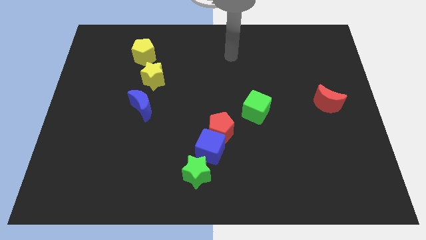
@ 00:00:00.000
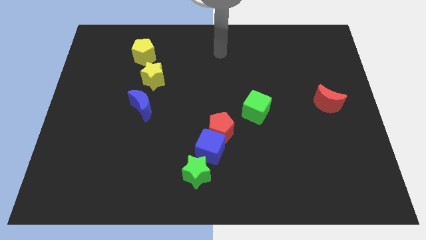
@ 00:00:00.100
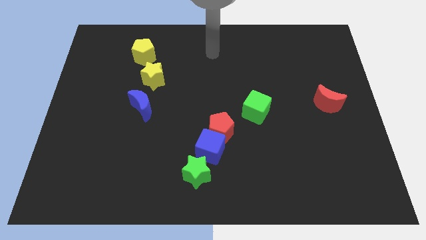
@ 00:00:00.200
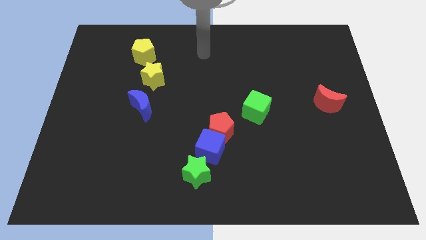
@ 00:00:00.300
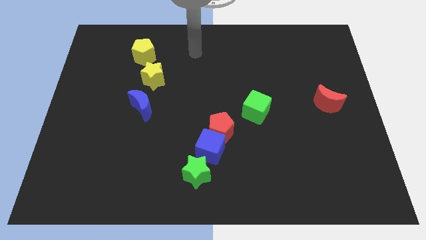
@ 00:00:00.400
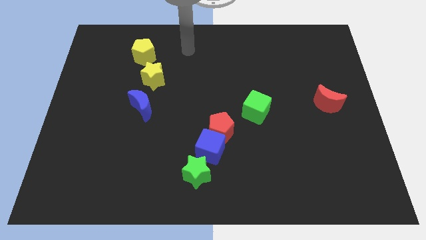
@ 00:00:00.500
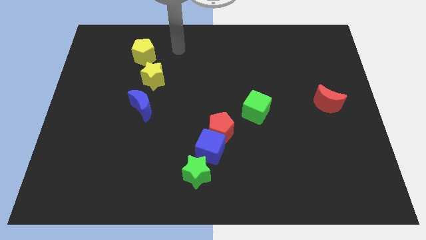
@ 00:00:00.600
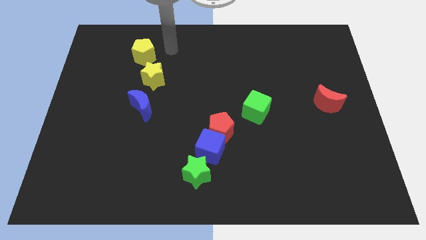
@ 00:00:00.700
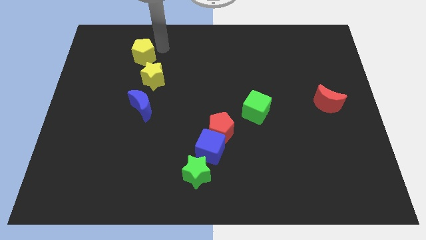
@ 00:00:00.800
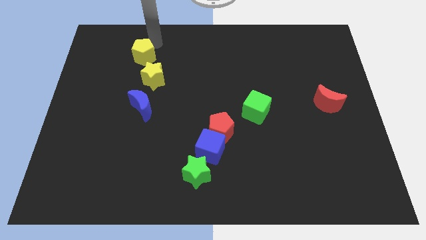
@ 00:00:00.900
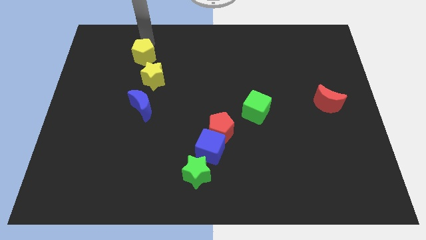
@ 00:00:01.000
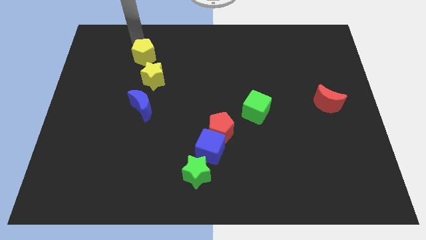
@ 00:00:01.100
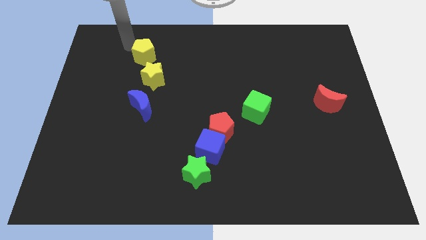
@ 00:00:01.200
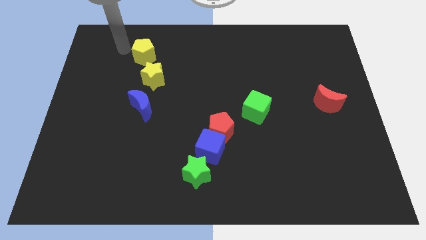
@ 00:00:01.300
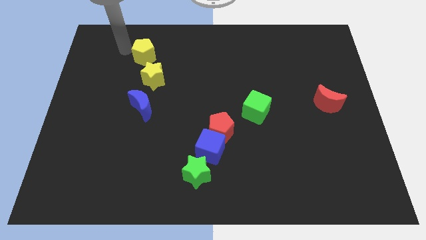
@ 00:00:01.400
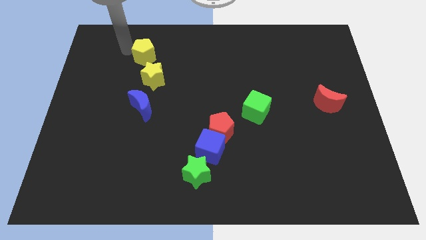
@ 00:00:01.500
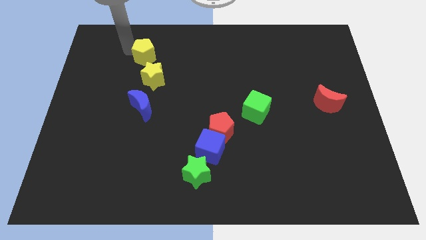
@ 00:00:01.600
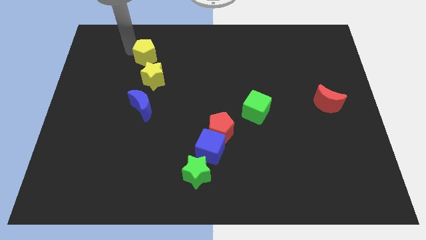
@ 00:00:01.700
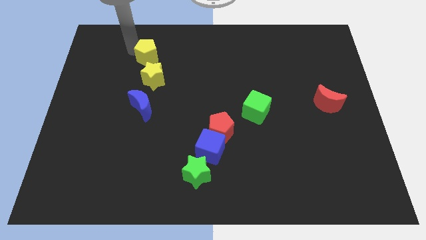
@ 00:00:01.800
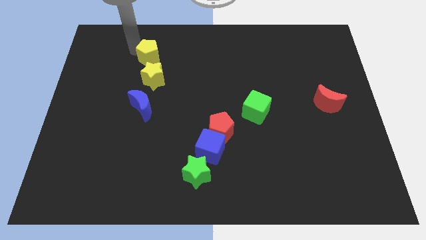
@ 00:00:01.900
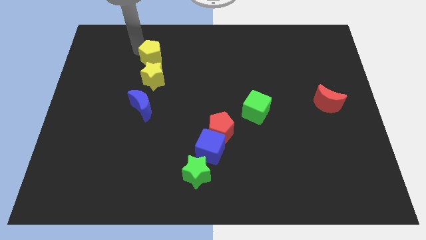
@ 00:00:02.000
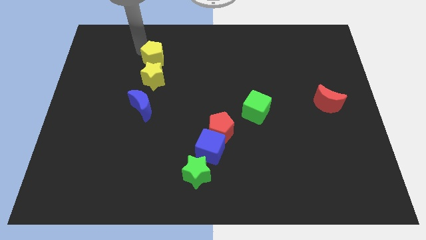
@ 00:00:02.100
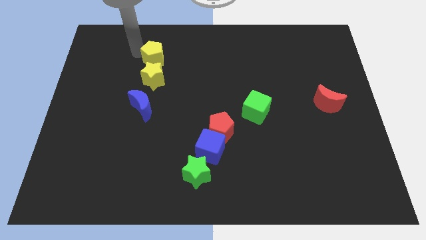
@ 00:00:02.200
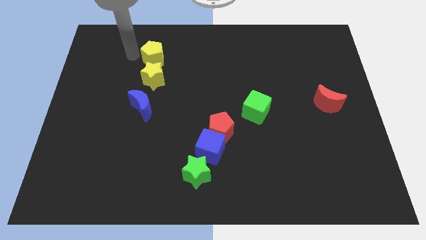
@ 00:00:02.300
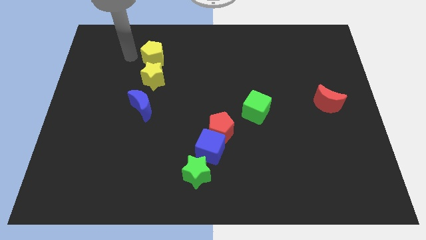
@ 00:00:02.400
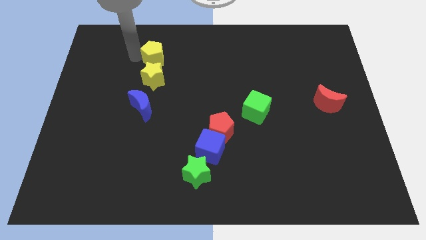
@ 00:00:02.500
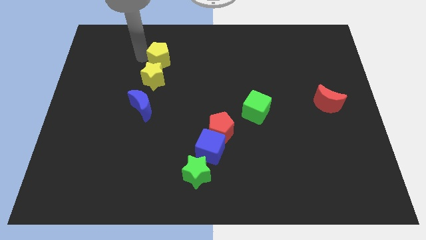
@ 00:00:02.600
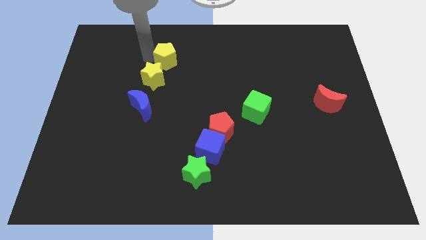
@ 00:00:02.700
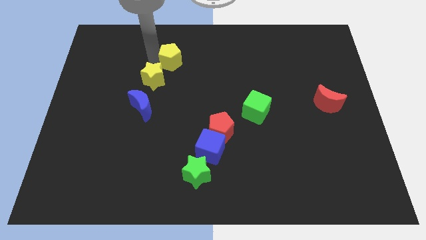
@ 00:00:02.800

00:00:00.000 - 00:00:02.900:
move the yellow pentagon a little bit right

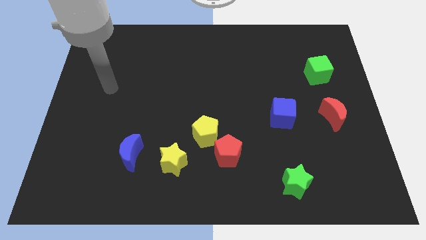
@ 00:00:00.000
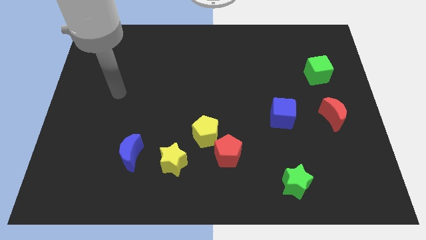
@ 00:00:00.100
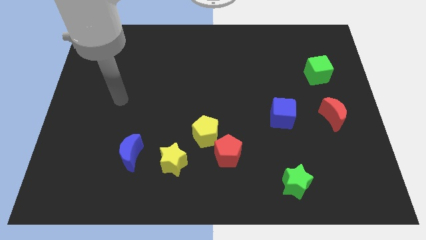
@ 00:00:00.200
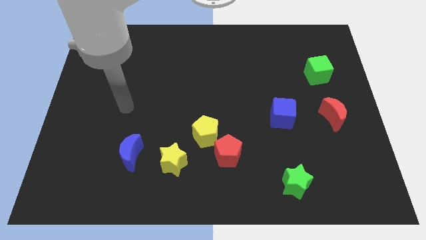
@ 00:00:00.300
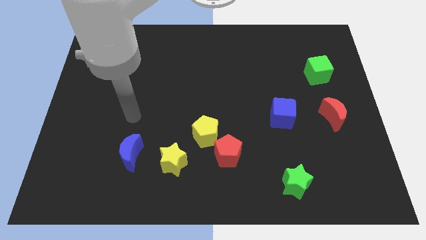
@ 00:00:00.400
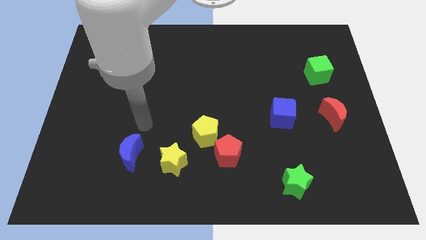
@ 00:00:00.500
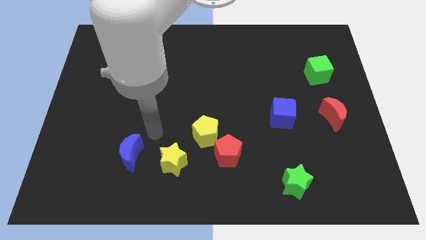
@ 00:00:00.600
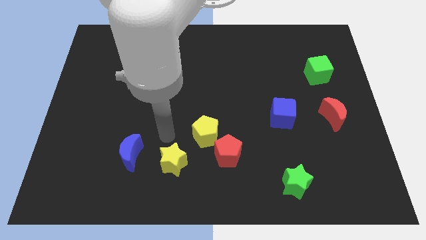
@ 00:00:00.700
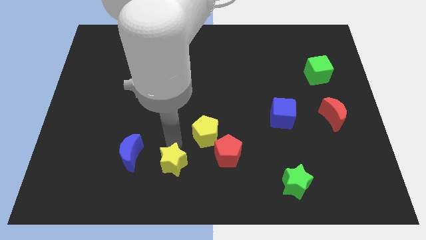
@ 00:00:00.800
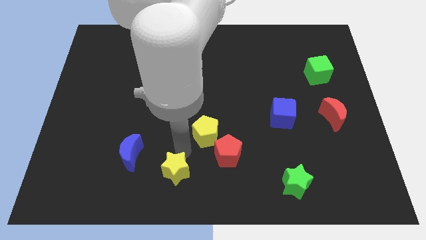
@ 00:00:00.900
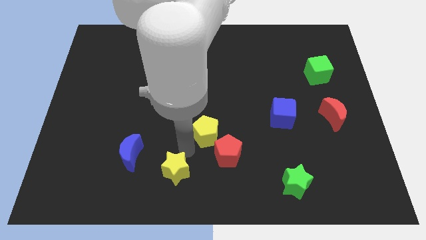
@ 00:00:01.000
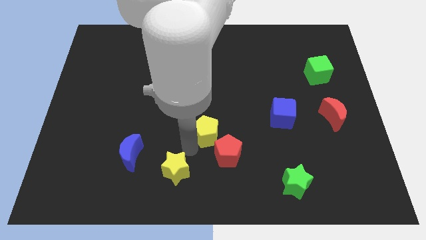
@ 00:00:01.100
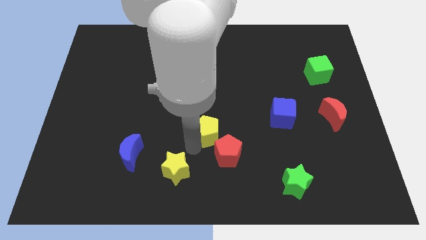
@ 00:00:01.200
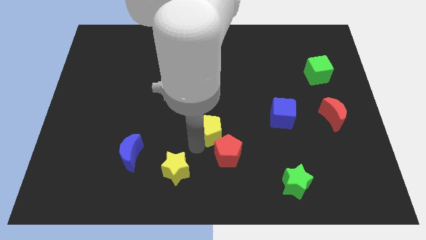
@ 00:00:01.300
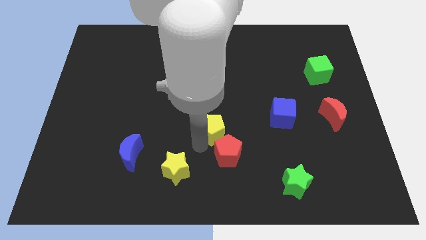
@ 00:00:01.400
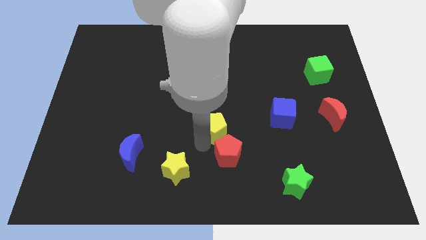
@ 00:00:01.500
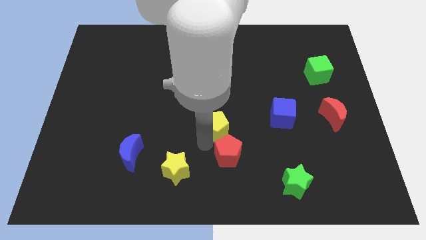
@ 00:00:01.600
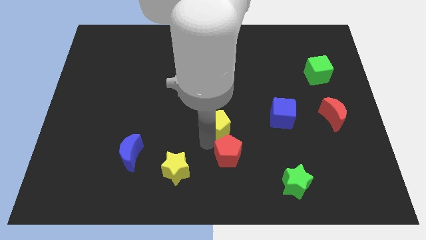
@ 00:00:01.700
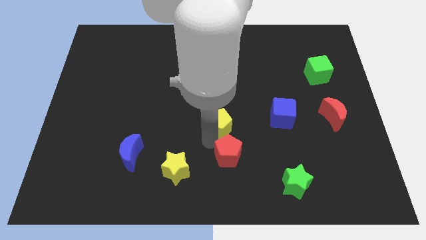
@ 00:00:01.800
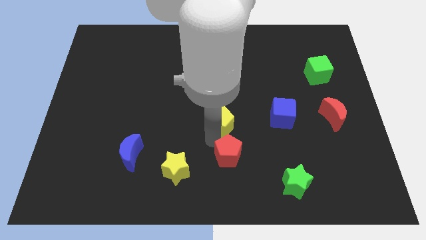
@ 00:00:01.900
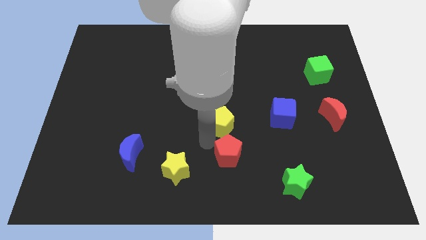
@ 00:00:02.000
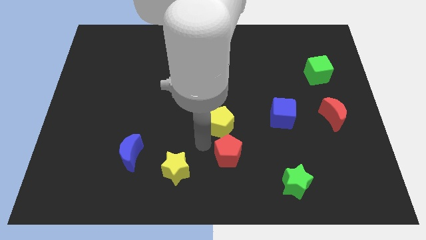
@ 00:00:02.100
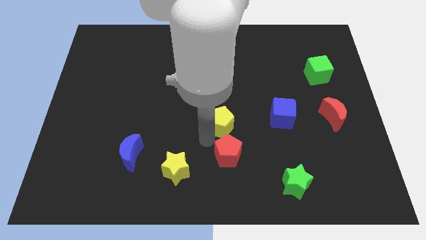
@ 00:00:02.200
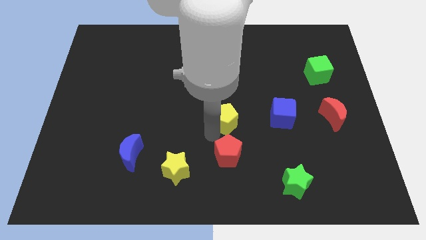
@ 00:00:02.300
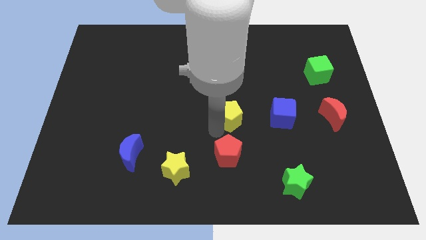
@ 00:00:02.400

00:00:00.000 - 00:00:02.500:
slide the yellow pentagon diagonally up and right slightly

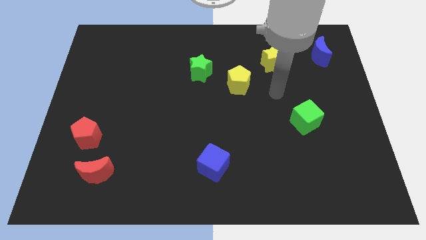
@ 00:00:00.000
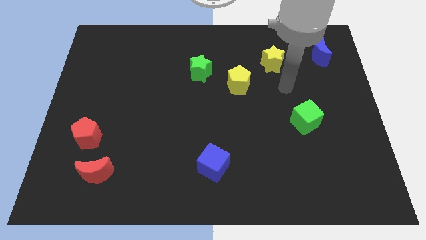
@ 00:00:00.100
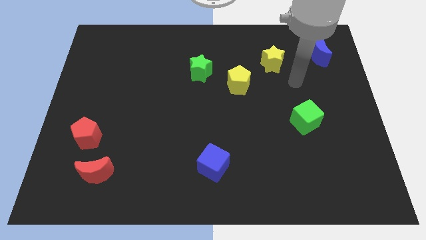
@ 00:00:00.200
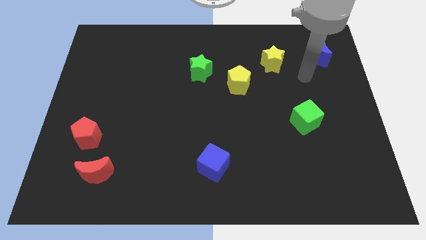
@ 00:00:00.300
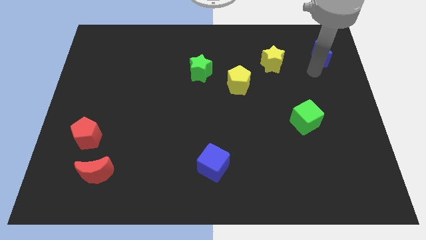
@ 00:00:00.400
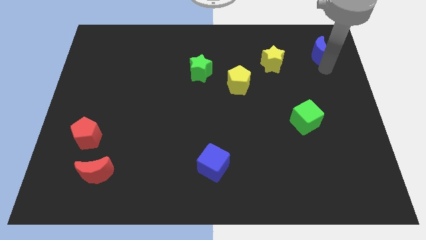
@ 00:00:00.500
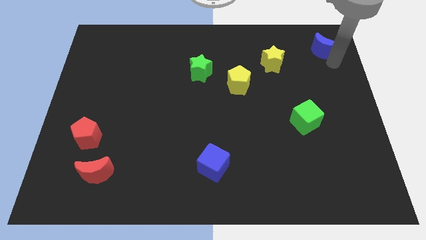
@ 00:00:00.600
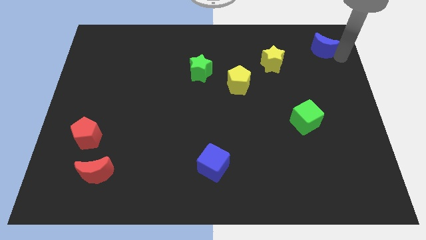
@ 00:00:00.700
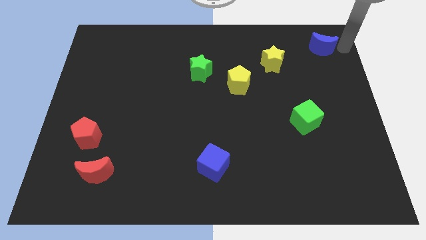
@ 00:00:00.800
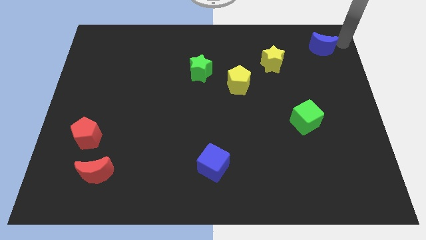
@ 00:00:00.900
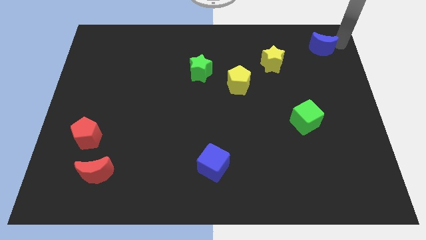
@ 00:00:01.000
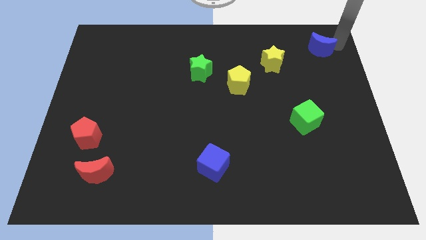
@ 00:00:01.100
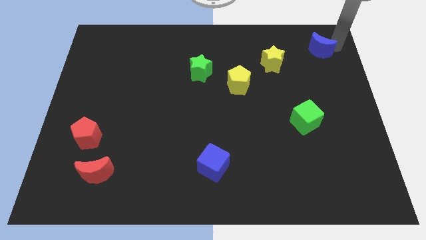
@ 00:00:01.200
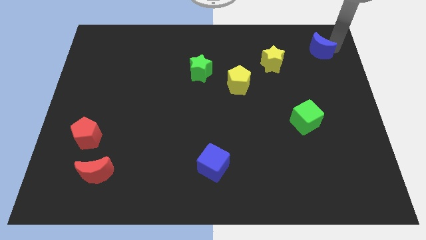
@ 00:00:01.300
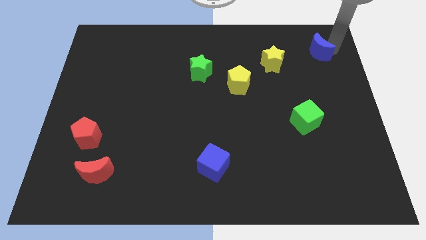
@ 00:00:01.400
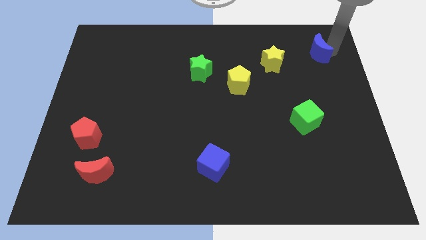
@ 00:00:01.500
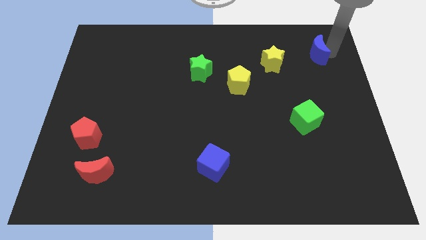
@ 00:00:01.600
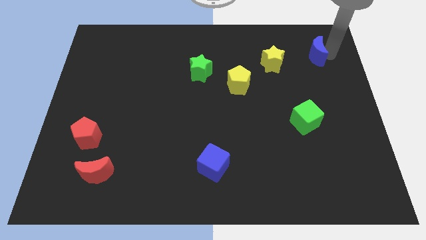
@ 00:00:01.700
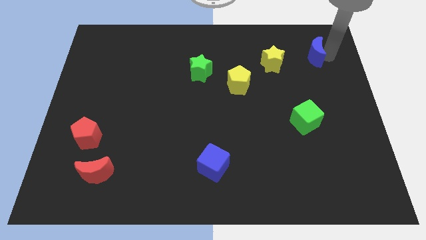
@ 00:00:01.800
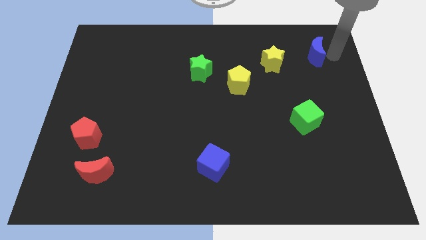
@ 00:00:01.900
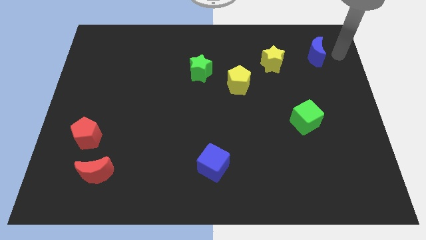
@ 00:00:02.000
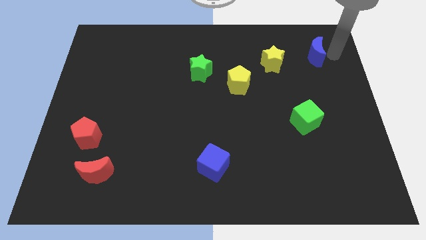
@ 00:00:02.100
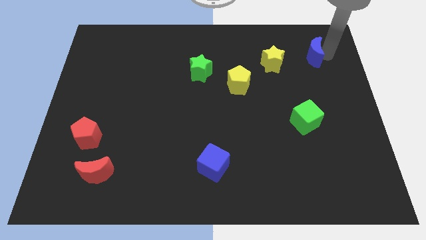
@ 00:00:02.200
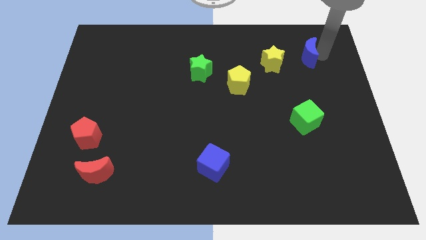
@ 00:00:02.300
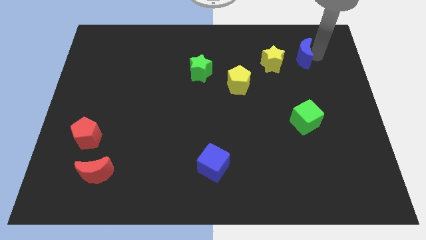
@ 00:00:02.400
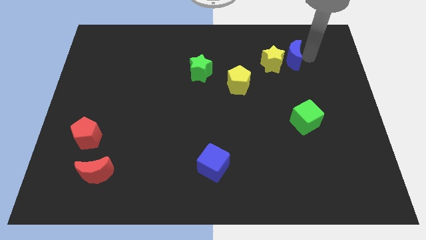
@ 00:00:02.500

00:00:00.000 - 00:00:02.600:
move the blue moon to the left a bit

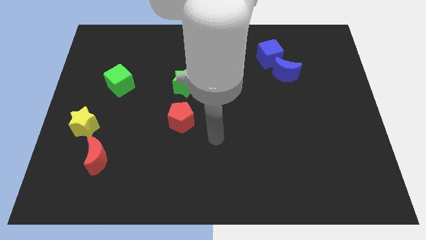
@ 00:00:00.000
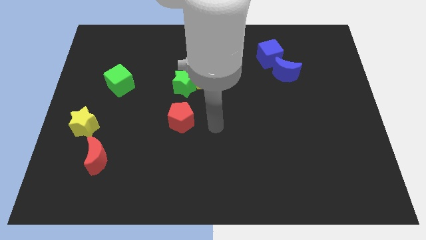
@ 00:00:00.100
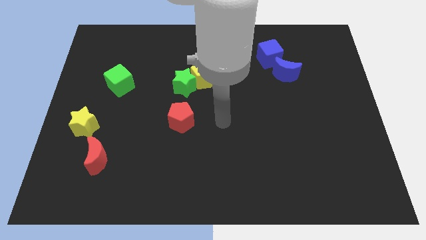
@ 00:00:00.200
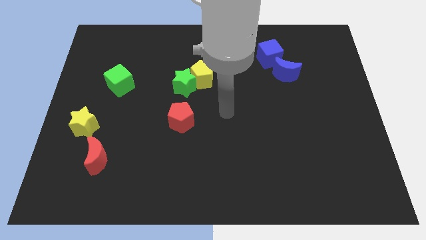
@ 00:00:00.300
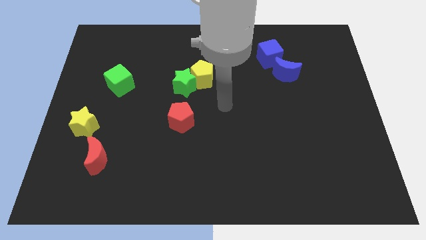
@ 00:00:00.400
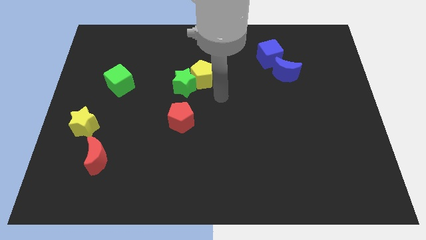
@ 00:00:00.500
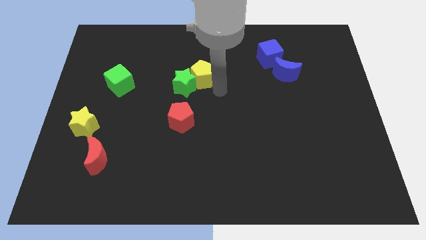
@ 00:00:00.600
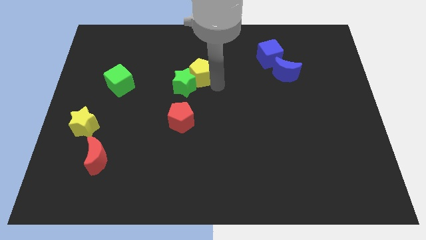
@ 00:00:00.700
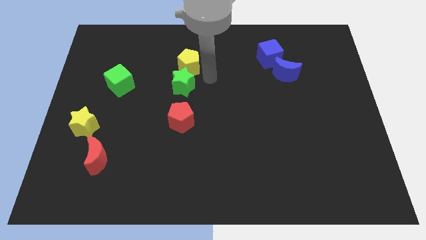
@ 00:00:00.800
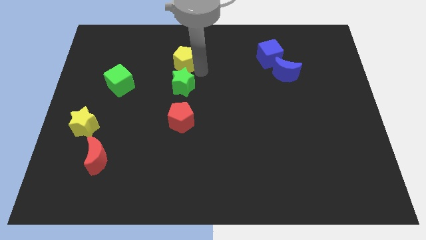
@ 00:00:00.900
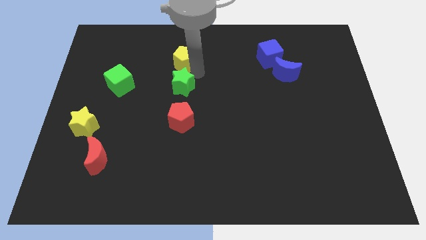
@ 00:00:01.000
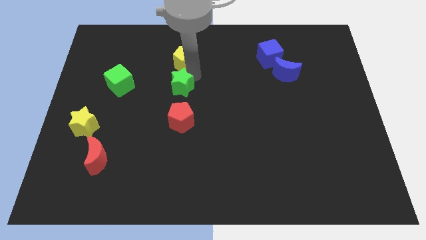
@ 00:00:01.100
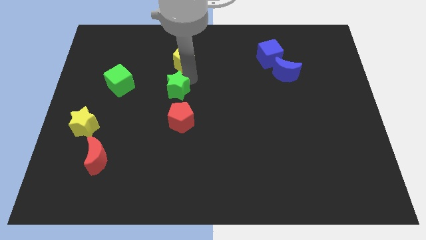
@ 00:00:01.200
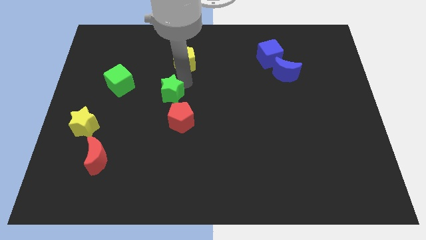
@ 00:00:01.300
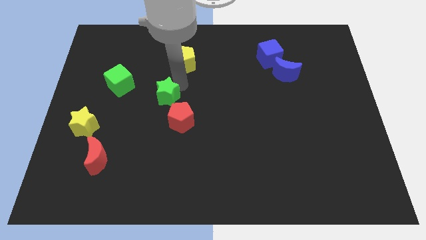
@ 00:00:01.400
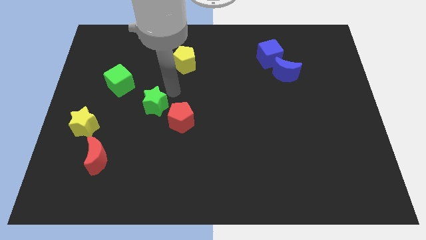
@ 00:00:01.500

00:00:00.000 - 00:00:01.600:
push the green star somewhat downwards and then left
